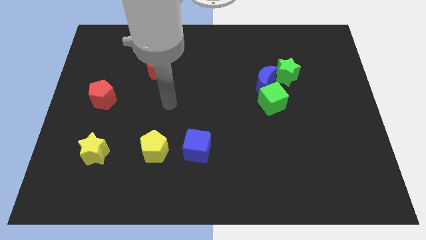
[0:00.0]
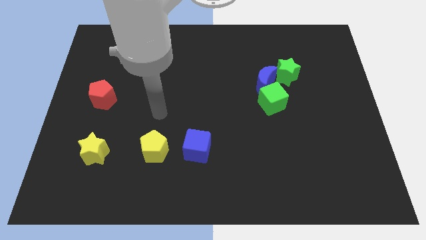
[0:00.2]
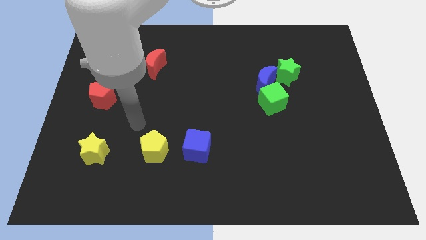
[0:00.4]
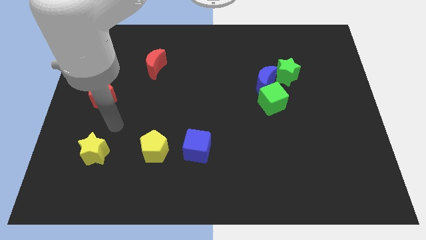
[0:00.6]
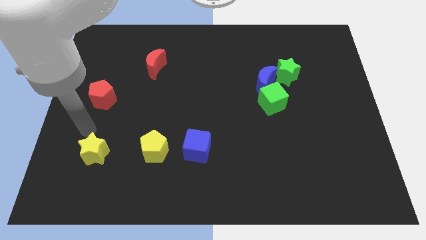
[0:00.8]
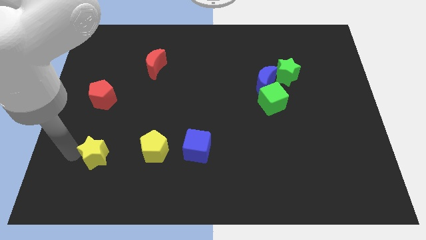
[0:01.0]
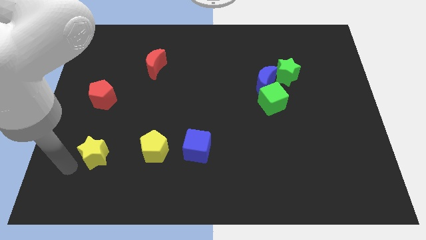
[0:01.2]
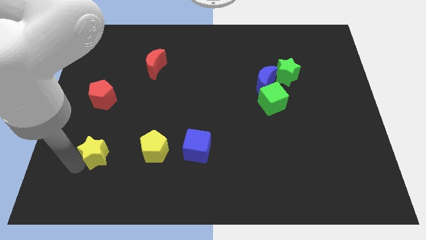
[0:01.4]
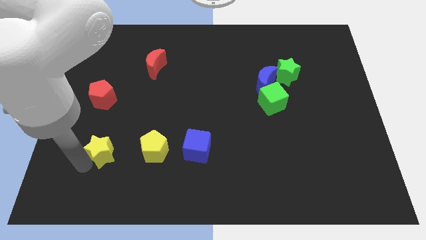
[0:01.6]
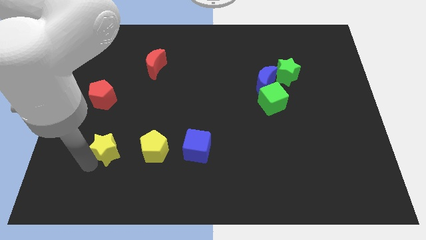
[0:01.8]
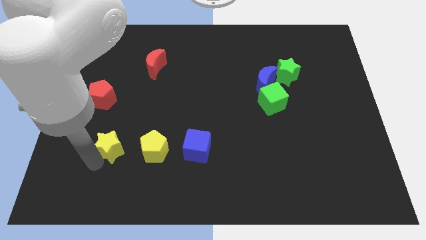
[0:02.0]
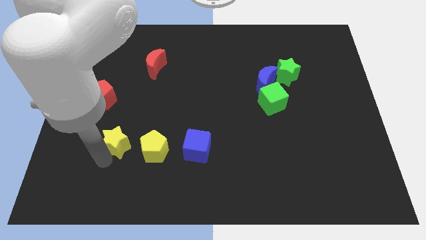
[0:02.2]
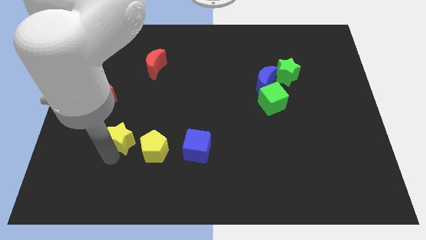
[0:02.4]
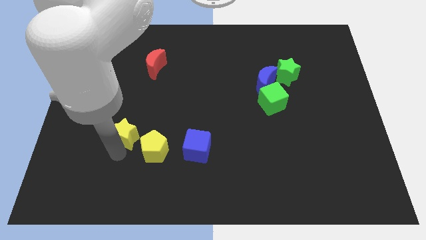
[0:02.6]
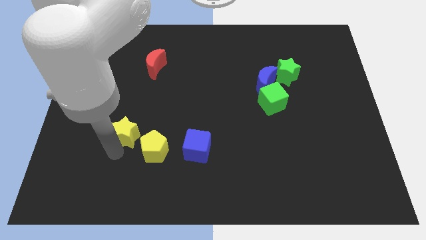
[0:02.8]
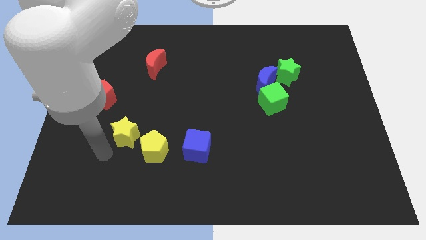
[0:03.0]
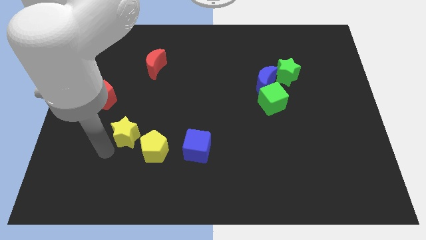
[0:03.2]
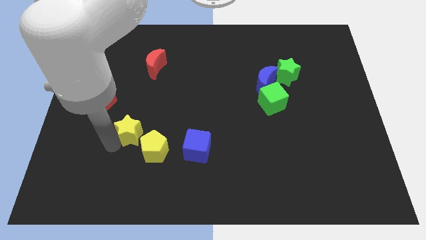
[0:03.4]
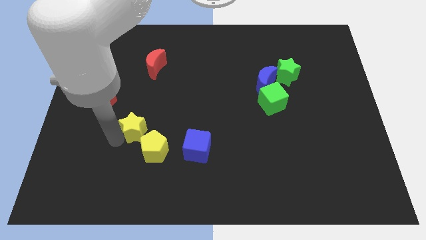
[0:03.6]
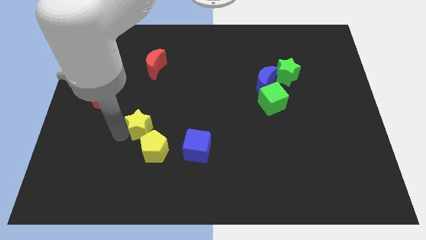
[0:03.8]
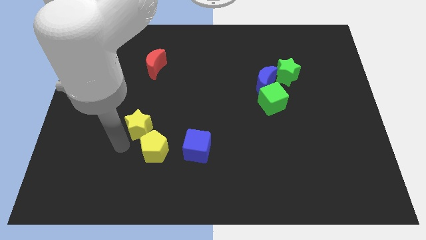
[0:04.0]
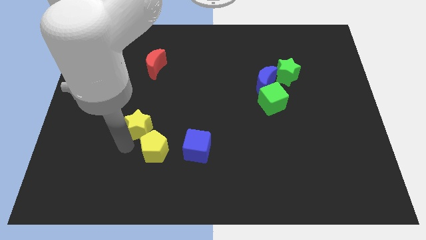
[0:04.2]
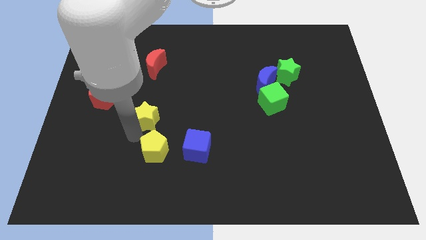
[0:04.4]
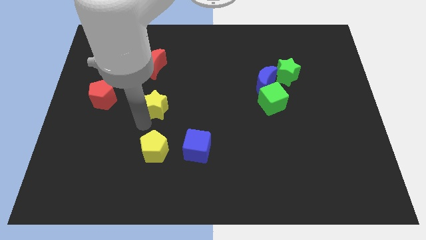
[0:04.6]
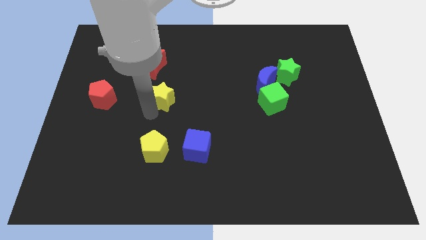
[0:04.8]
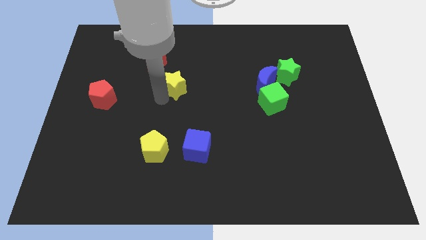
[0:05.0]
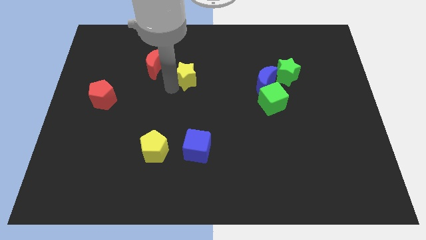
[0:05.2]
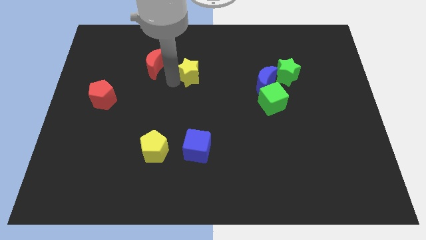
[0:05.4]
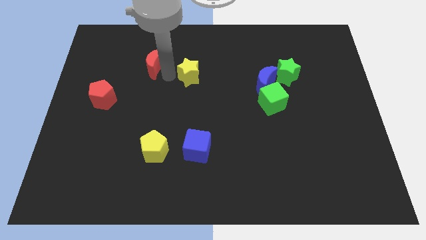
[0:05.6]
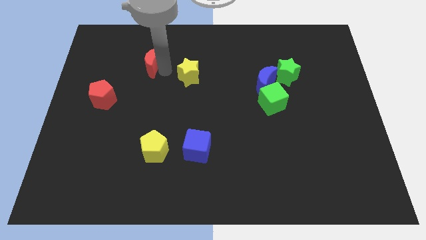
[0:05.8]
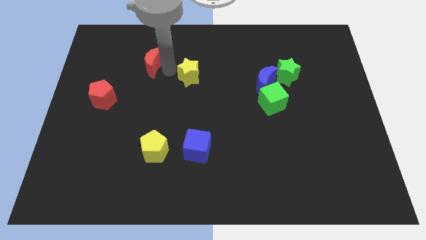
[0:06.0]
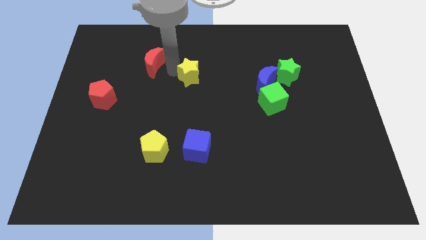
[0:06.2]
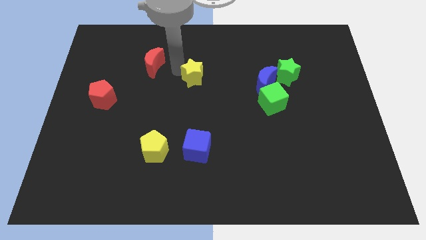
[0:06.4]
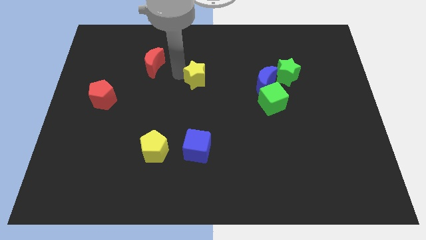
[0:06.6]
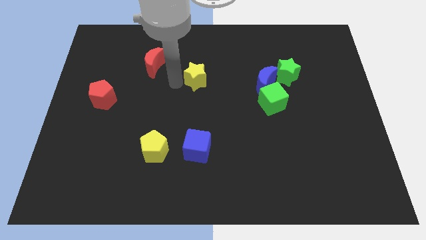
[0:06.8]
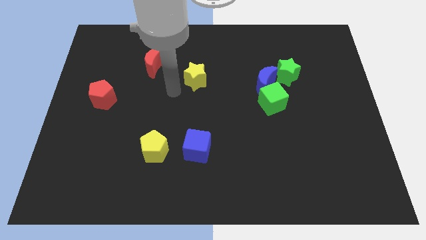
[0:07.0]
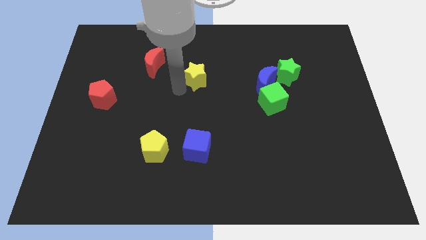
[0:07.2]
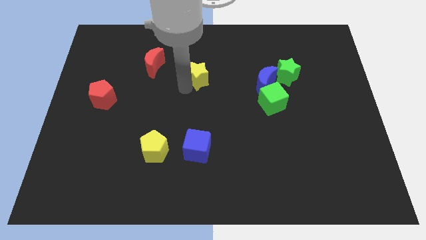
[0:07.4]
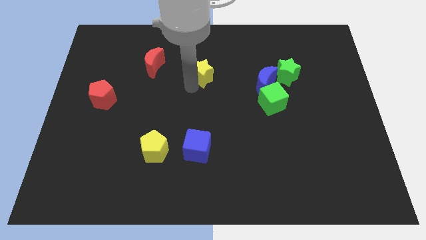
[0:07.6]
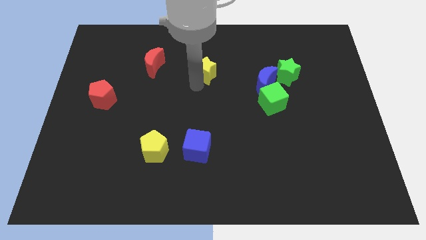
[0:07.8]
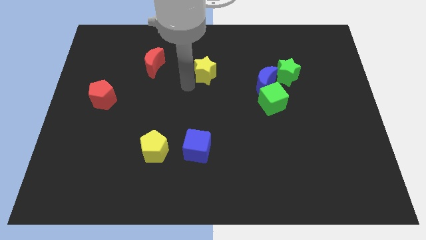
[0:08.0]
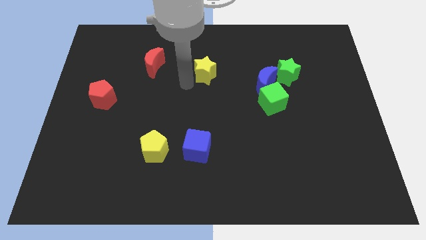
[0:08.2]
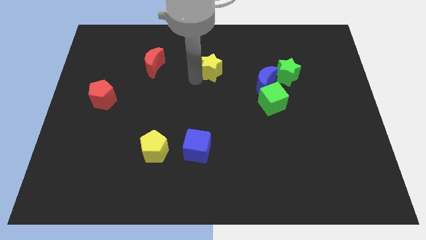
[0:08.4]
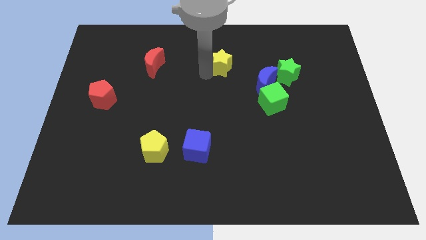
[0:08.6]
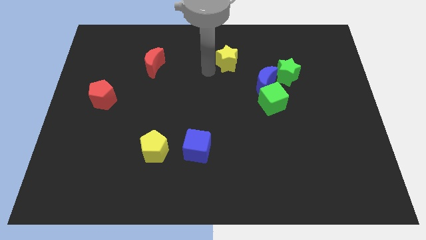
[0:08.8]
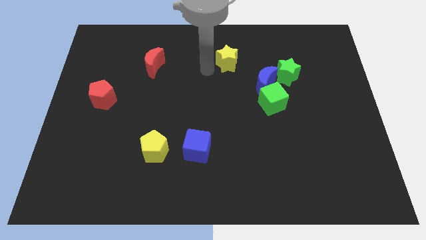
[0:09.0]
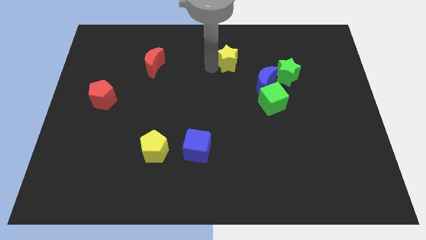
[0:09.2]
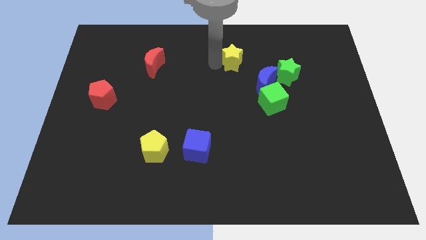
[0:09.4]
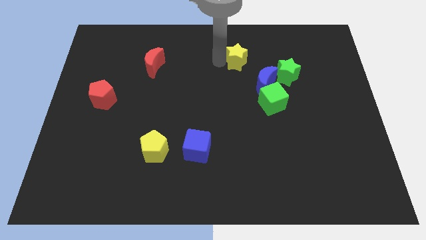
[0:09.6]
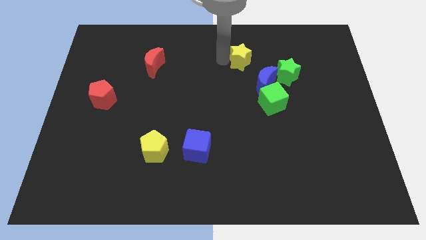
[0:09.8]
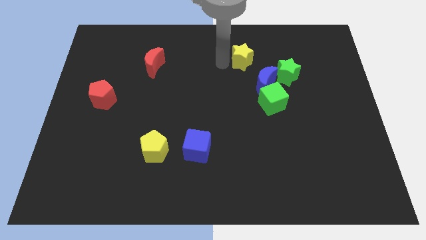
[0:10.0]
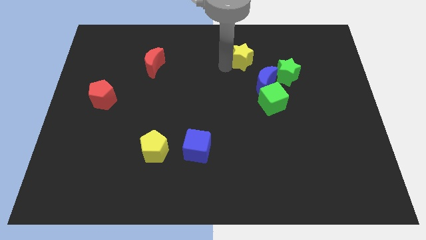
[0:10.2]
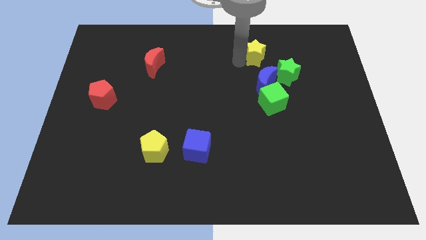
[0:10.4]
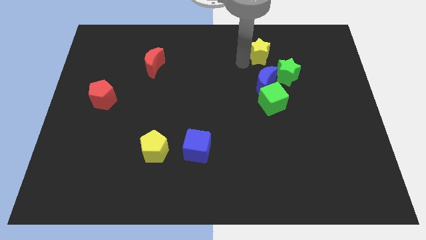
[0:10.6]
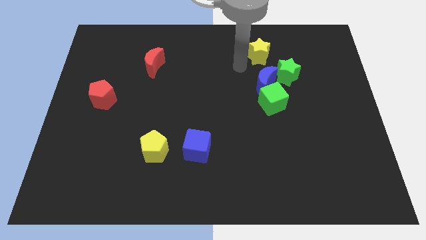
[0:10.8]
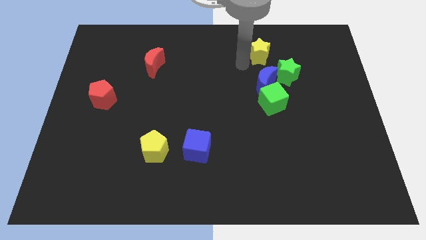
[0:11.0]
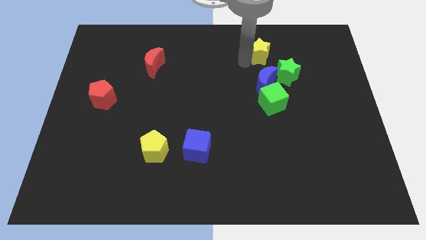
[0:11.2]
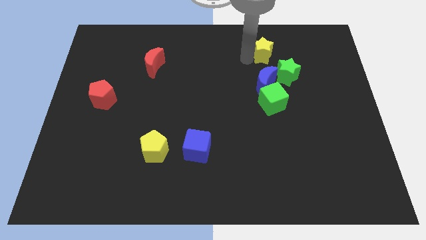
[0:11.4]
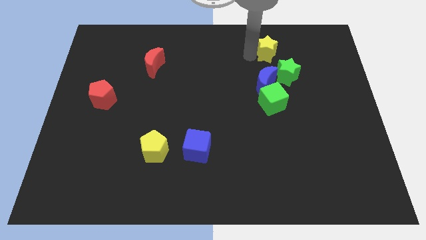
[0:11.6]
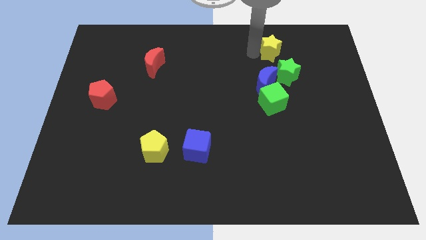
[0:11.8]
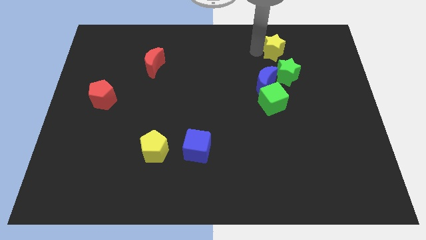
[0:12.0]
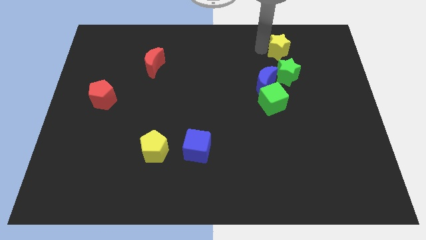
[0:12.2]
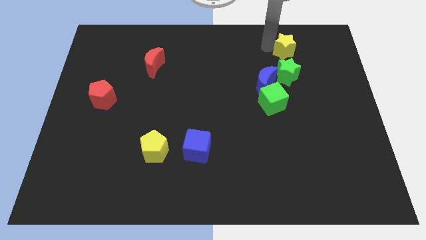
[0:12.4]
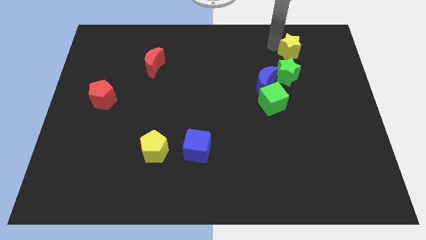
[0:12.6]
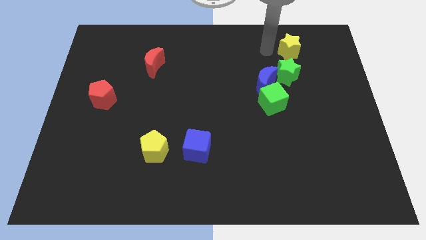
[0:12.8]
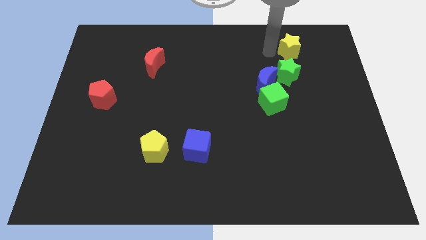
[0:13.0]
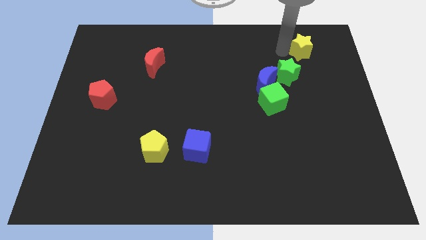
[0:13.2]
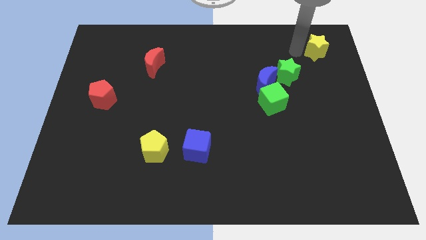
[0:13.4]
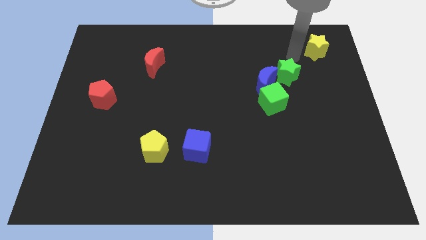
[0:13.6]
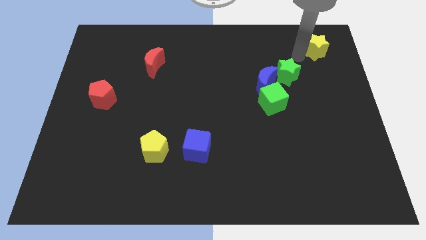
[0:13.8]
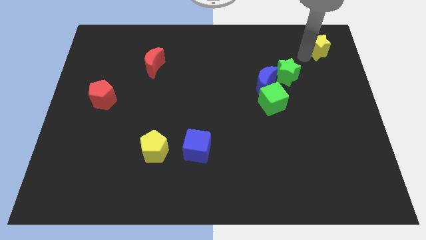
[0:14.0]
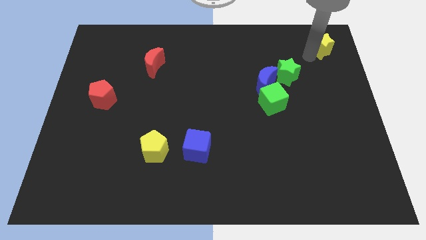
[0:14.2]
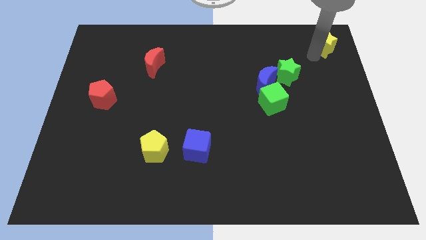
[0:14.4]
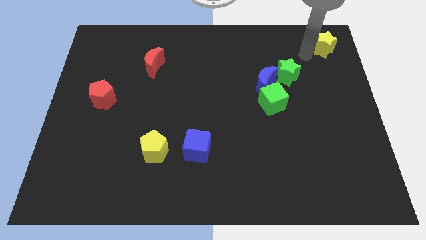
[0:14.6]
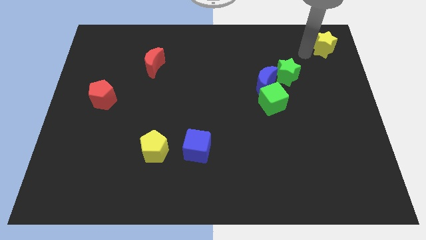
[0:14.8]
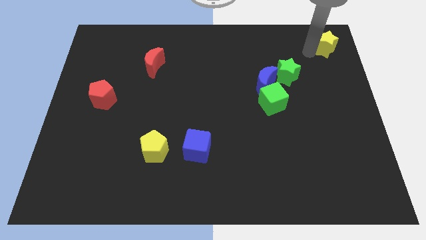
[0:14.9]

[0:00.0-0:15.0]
slide the yellow star to the upper right corner
